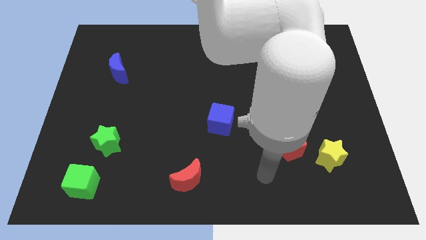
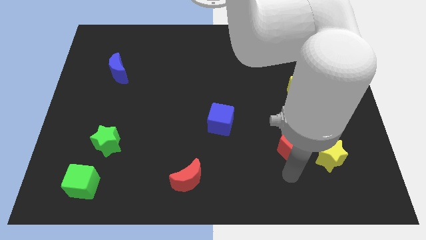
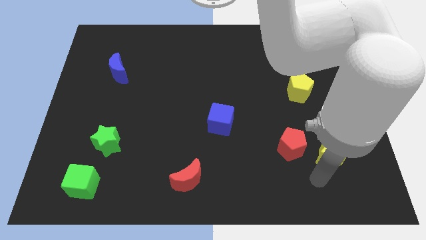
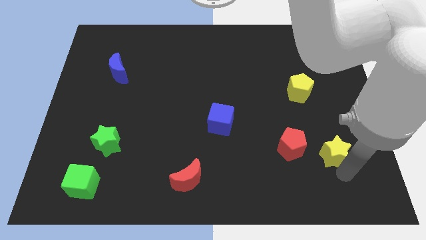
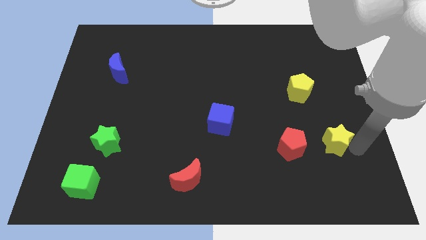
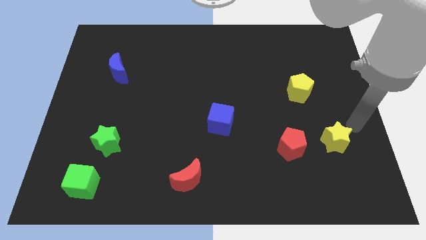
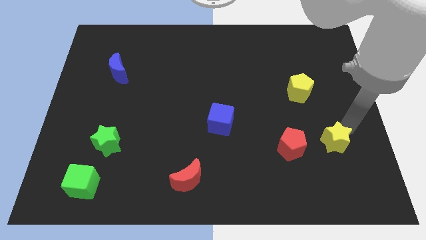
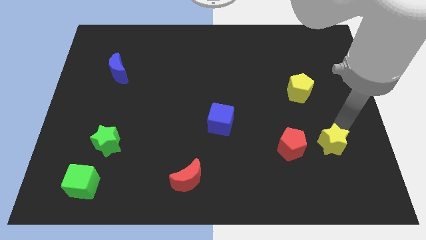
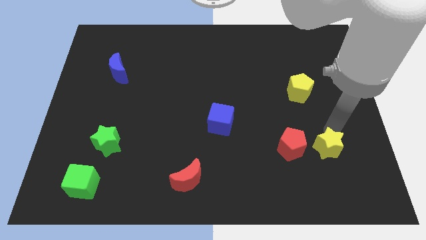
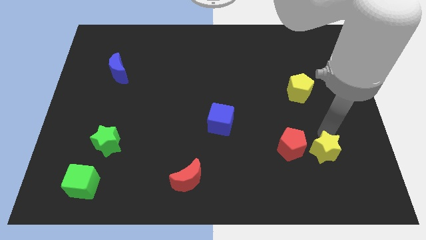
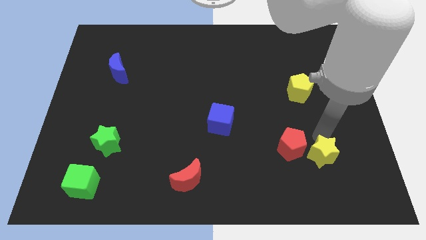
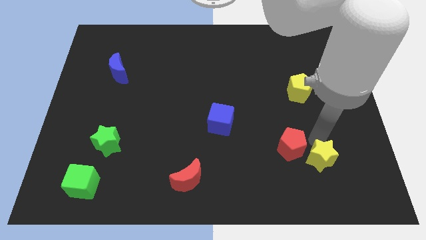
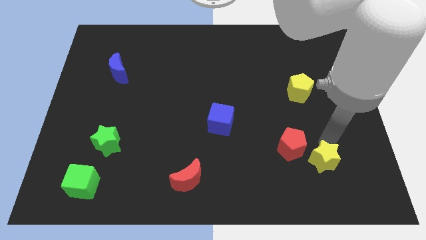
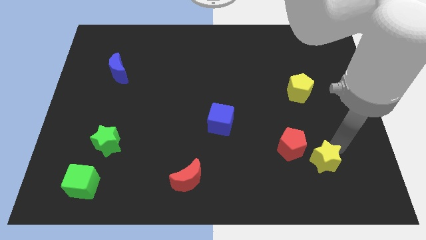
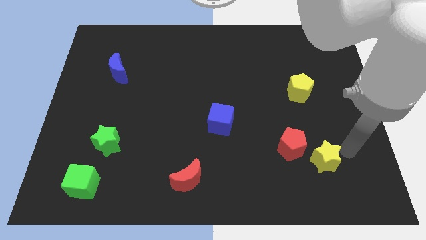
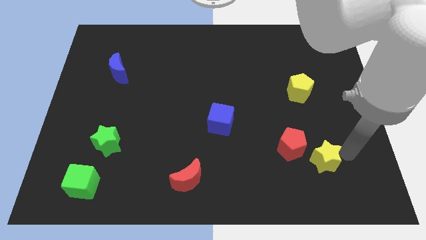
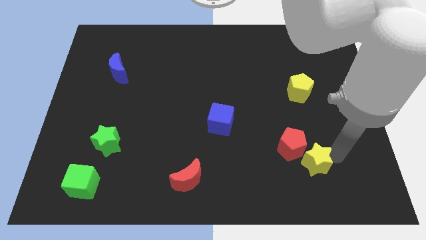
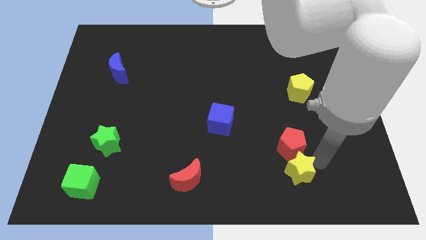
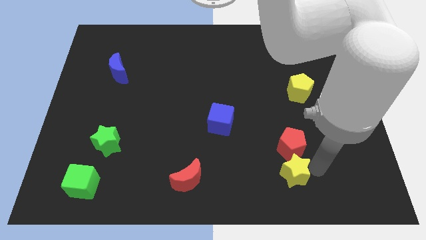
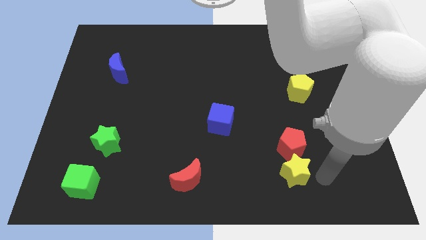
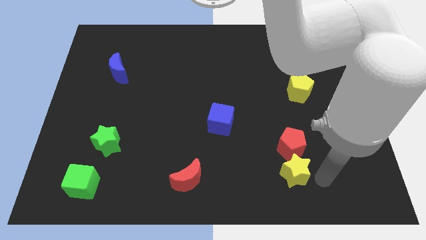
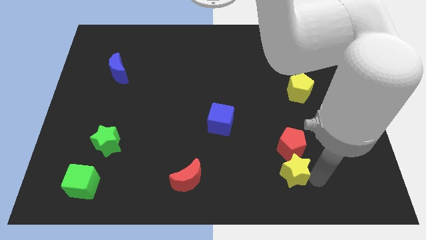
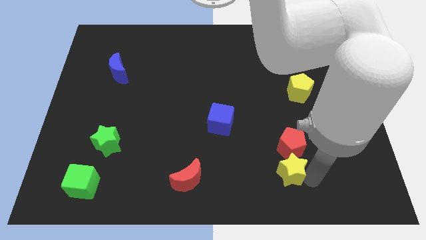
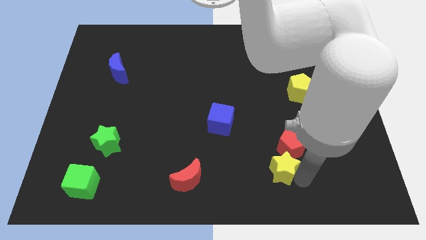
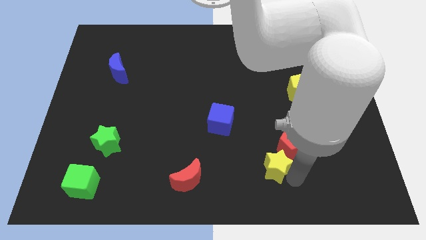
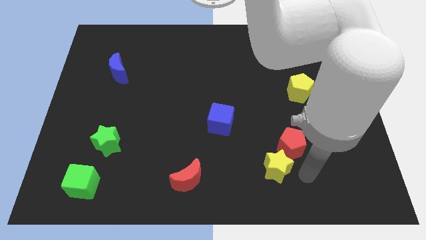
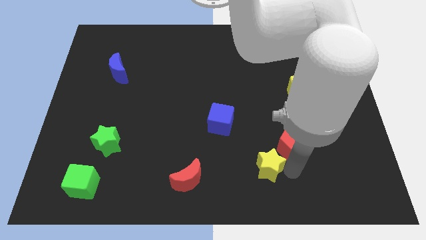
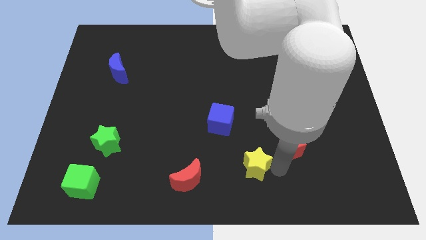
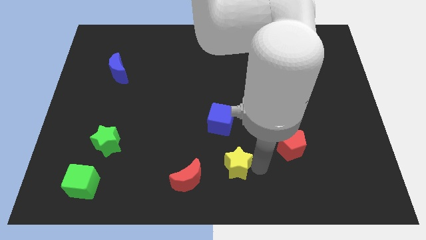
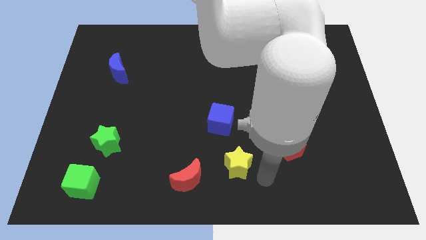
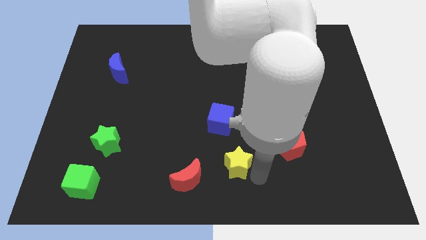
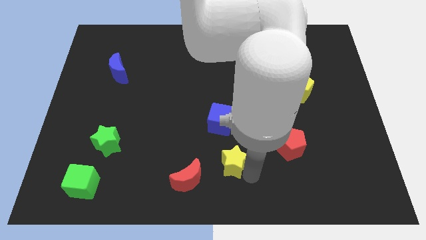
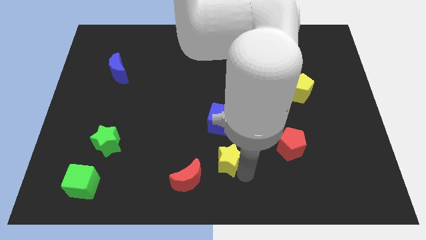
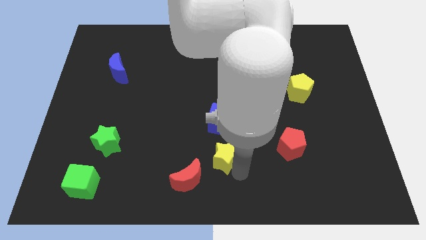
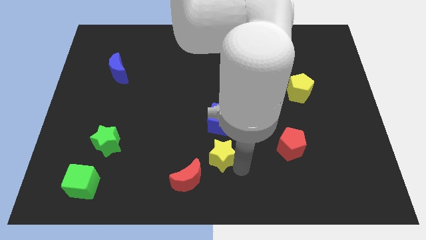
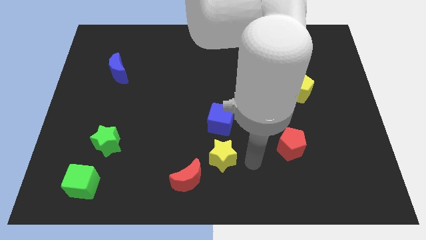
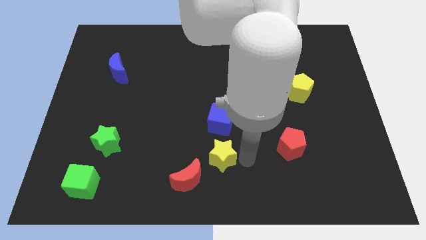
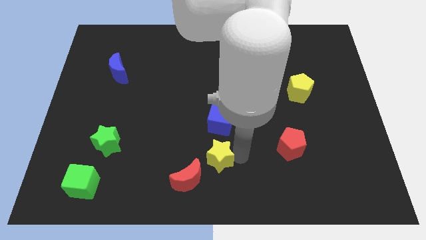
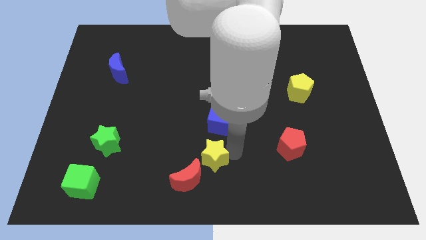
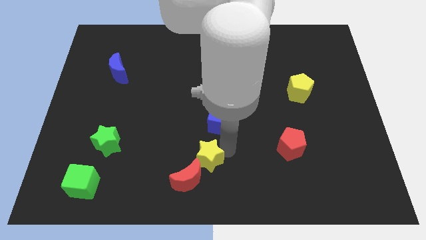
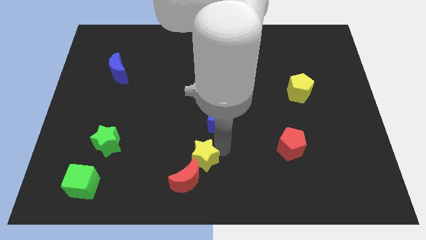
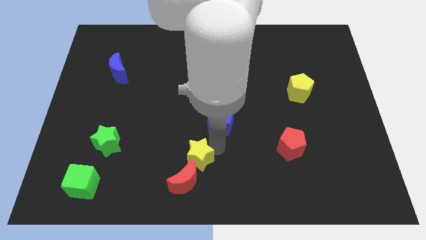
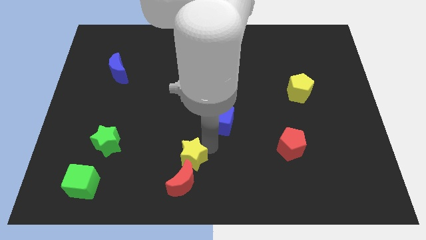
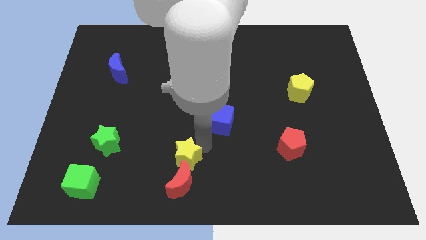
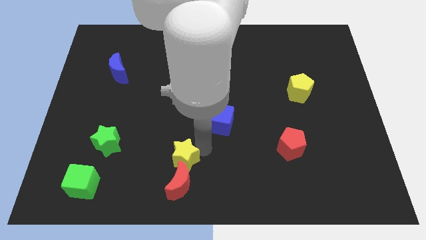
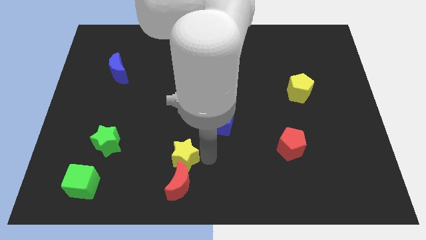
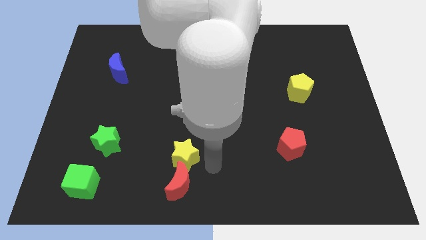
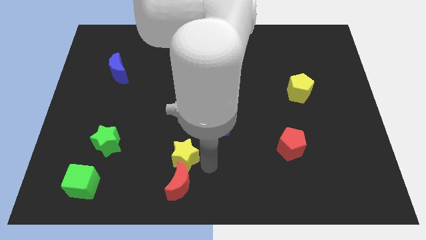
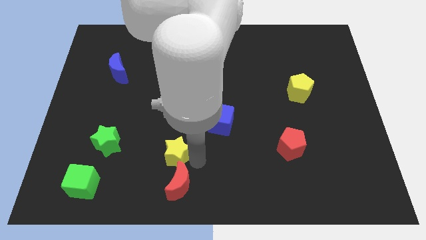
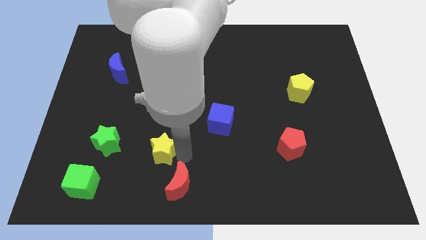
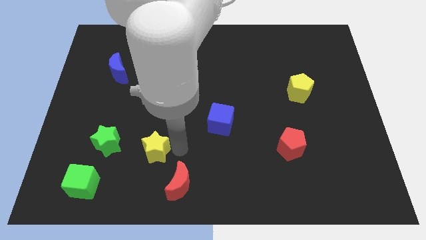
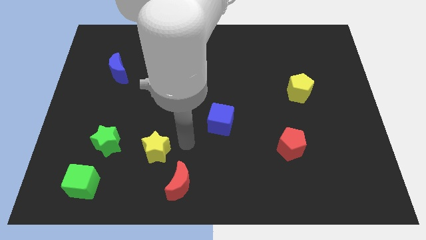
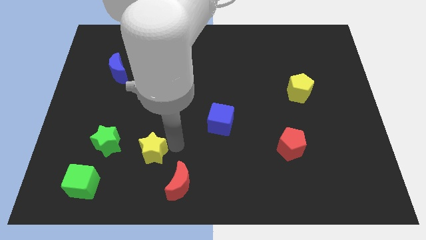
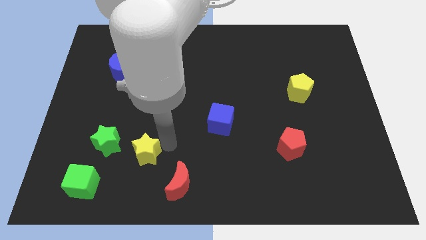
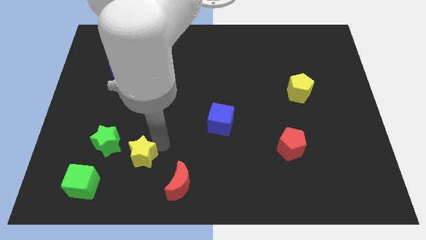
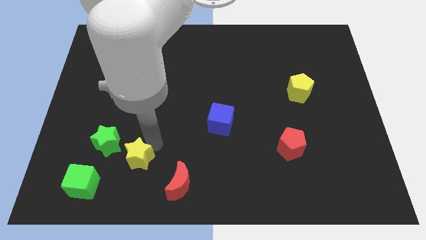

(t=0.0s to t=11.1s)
push the yellow star to the top right of the green cube
